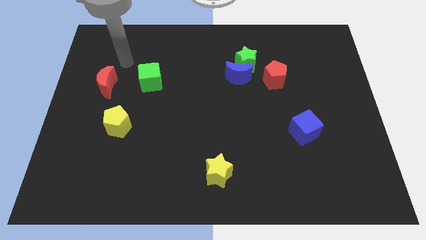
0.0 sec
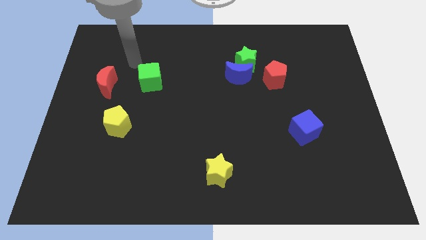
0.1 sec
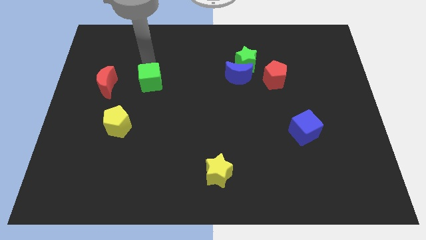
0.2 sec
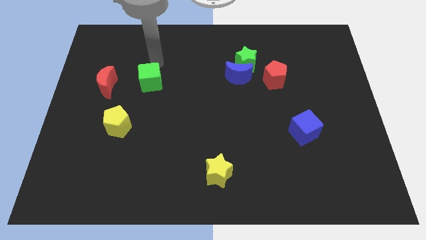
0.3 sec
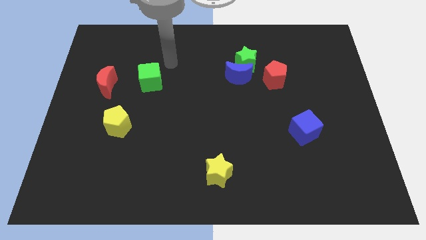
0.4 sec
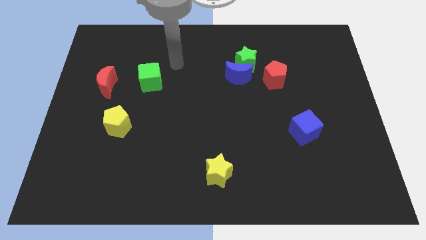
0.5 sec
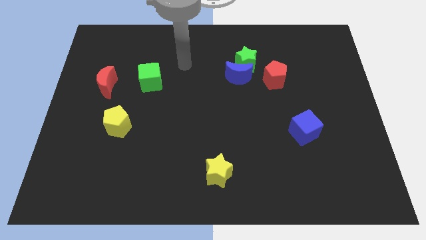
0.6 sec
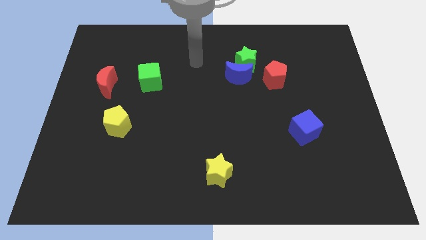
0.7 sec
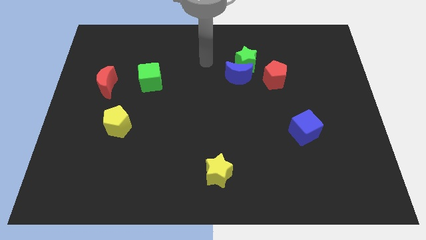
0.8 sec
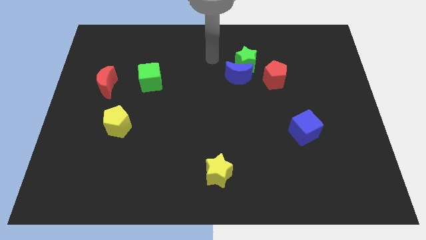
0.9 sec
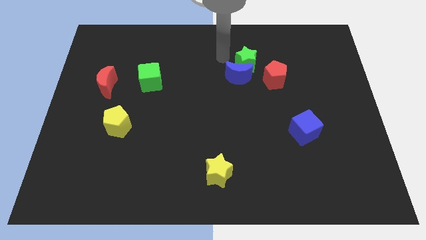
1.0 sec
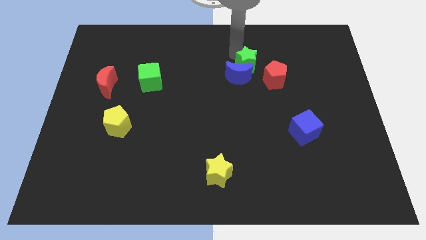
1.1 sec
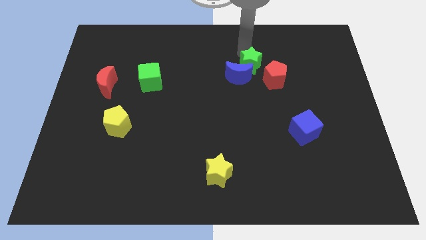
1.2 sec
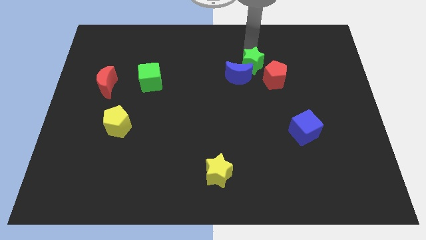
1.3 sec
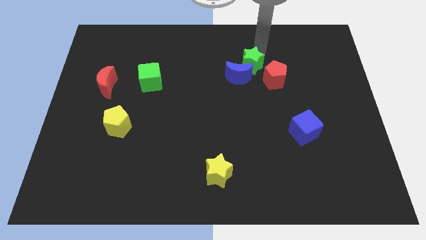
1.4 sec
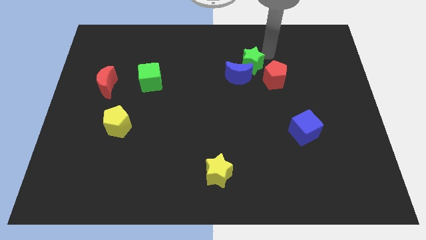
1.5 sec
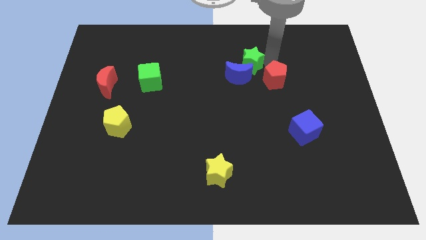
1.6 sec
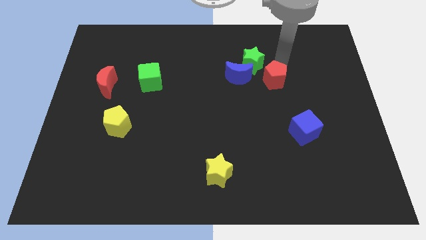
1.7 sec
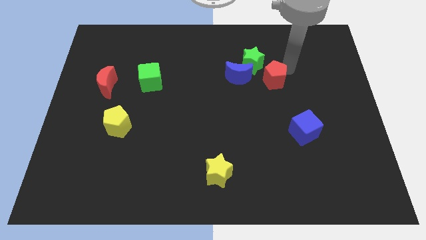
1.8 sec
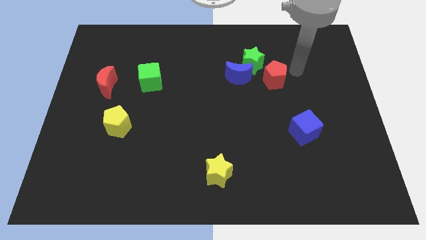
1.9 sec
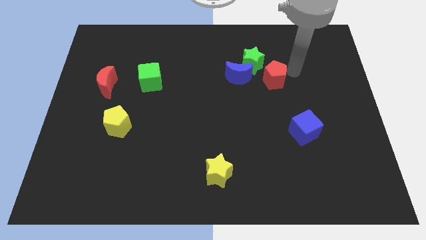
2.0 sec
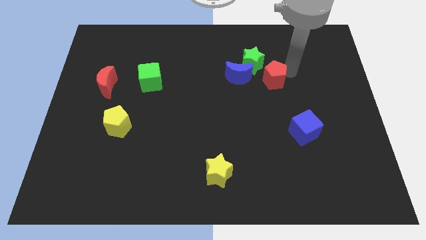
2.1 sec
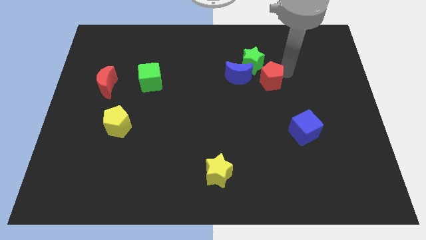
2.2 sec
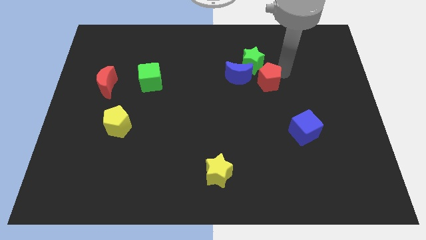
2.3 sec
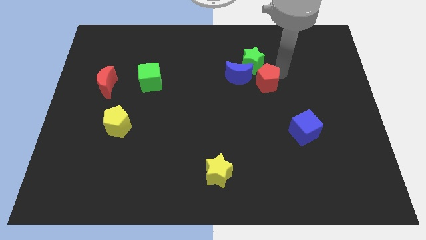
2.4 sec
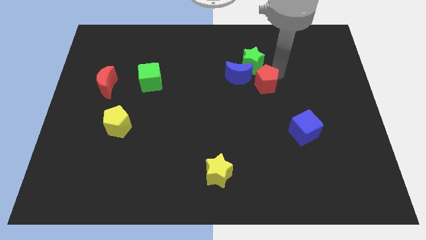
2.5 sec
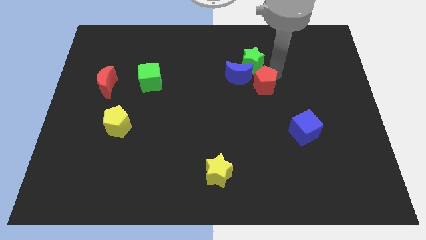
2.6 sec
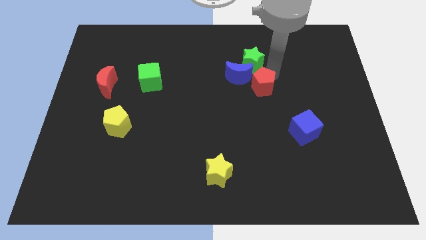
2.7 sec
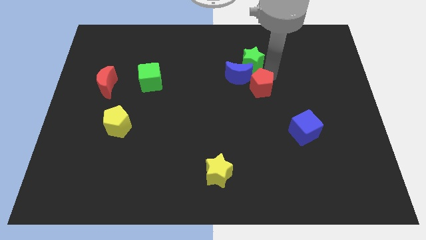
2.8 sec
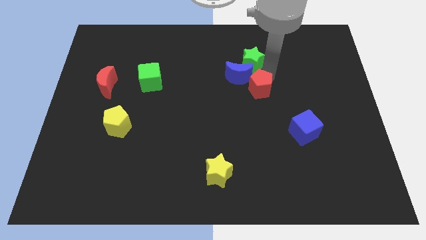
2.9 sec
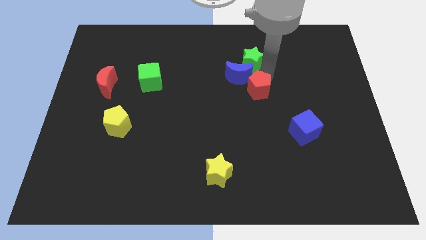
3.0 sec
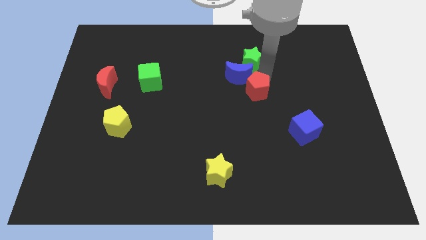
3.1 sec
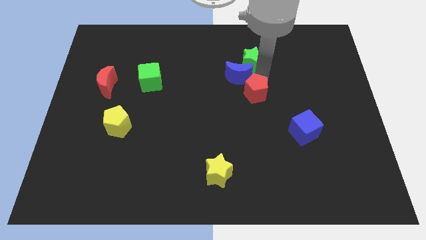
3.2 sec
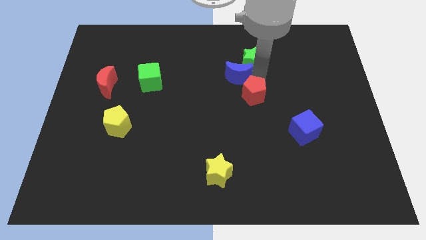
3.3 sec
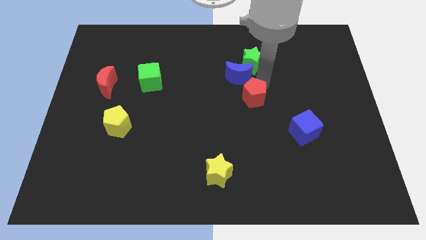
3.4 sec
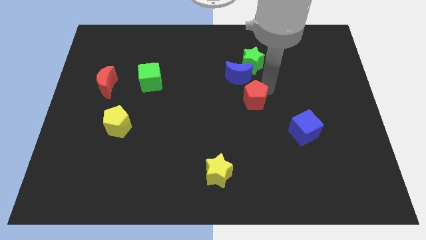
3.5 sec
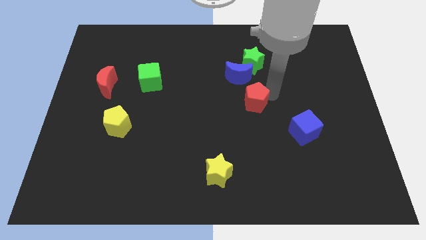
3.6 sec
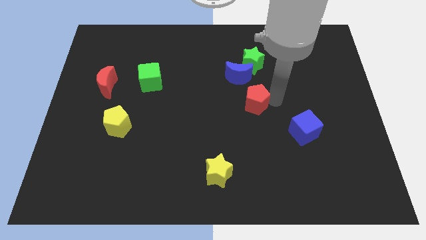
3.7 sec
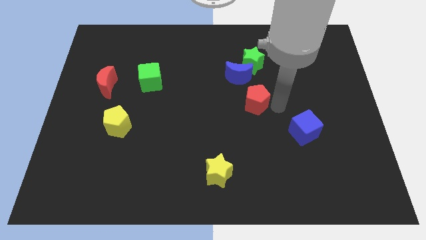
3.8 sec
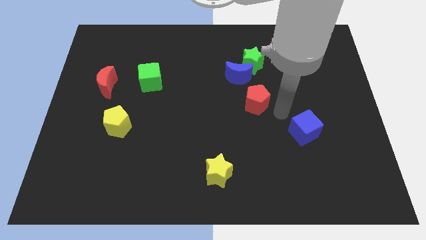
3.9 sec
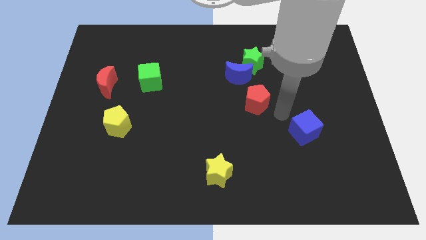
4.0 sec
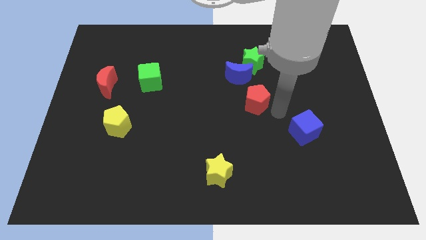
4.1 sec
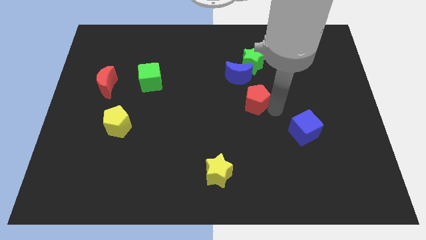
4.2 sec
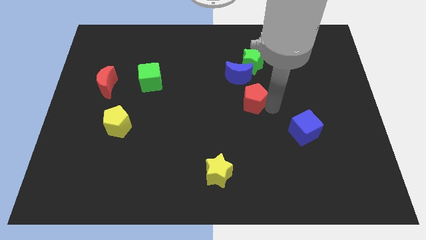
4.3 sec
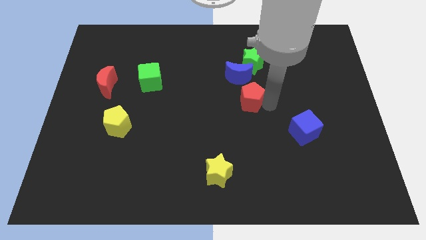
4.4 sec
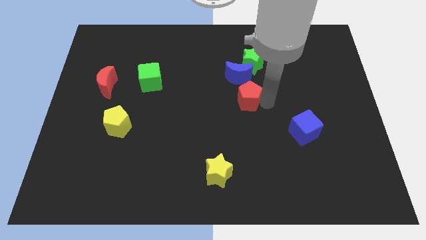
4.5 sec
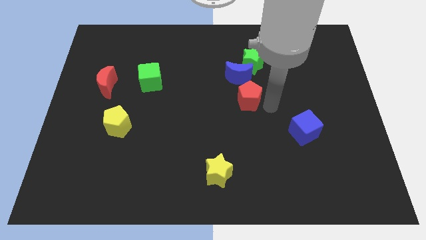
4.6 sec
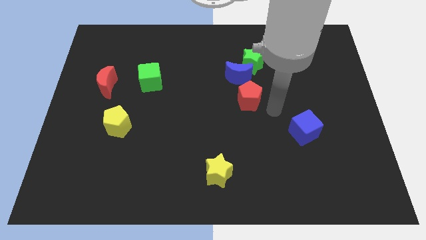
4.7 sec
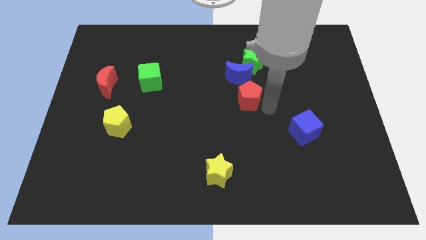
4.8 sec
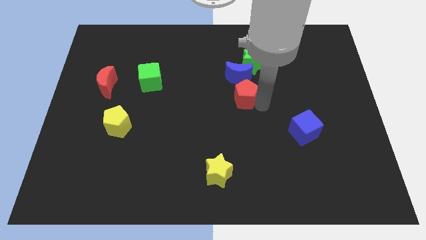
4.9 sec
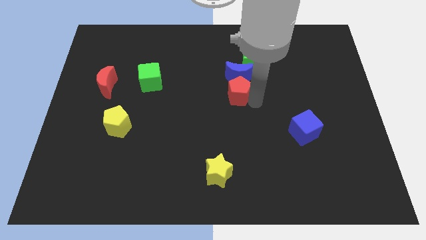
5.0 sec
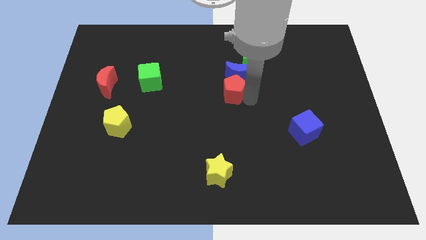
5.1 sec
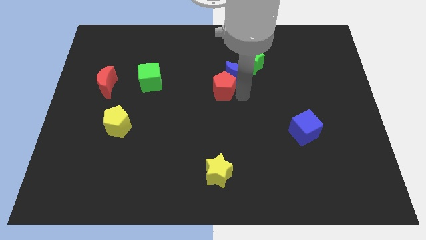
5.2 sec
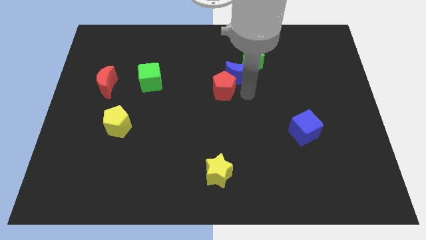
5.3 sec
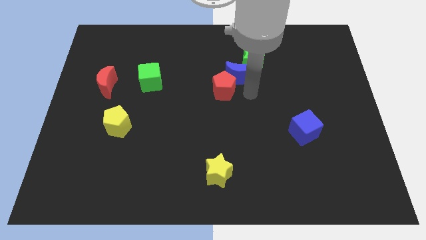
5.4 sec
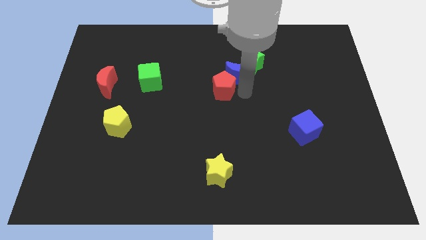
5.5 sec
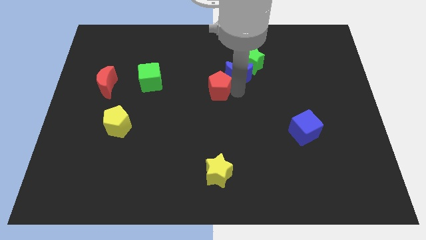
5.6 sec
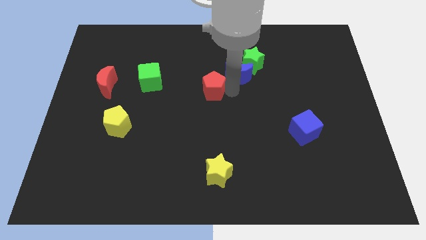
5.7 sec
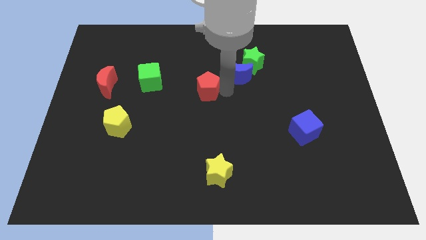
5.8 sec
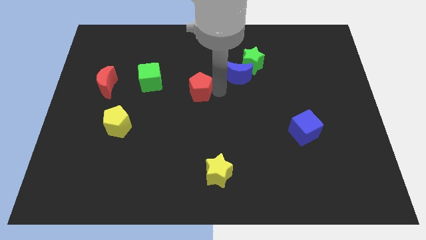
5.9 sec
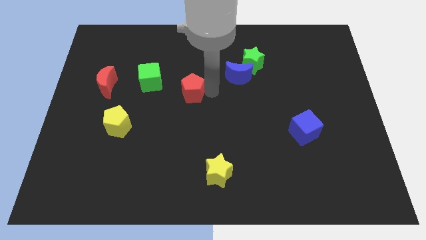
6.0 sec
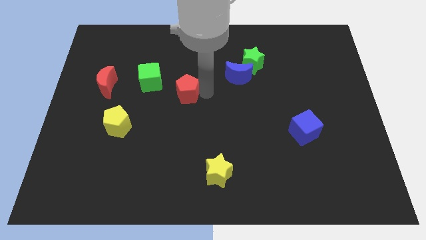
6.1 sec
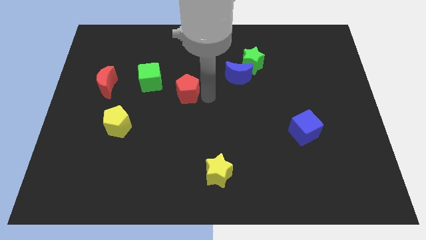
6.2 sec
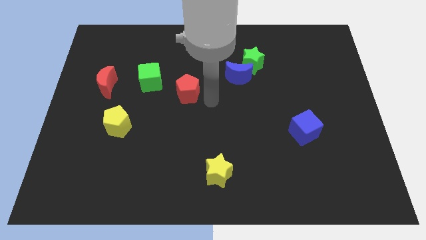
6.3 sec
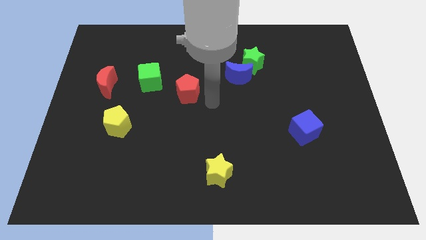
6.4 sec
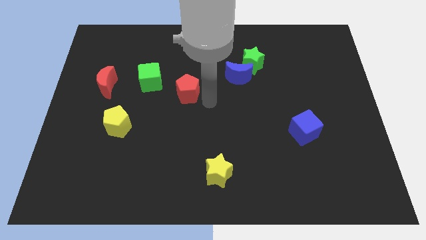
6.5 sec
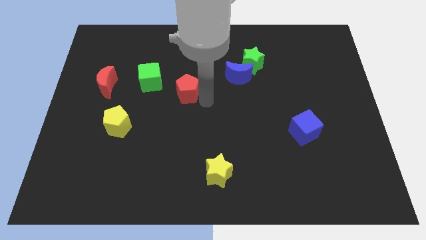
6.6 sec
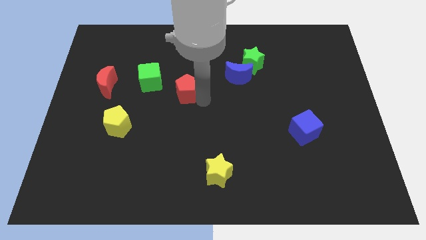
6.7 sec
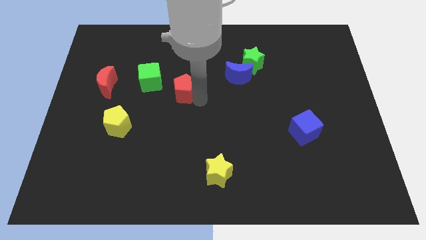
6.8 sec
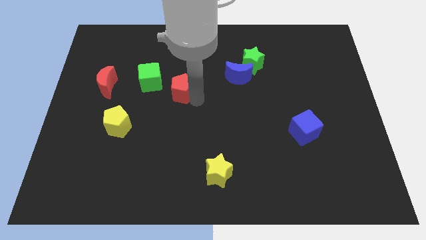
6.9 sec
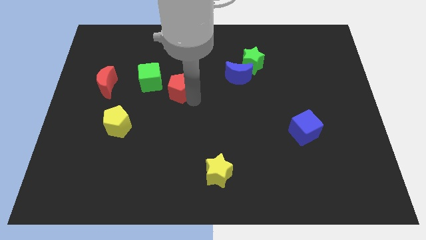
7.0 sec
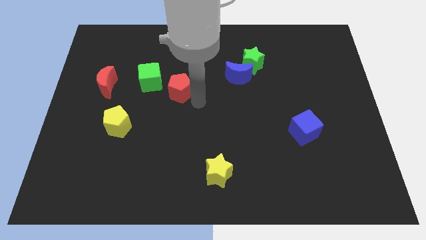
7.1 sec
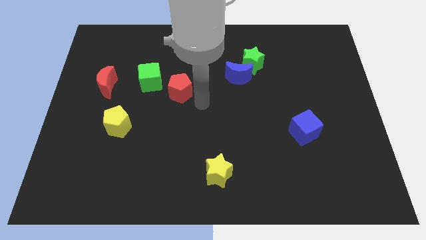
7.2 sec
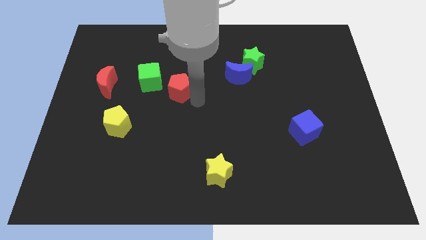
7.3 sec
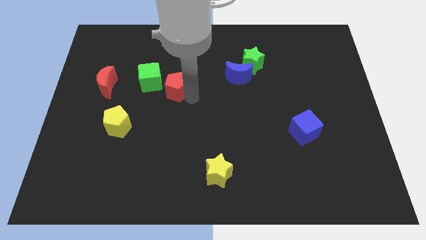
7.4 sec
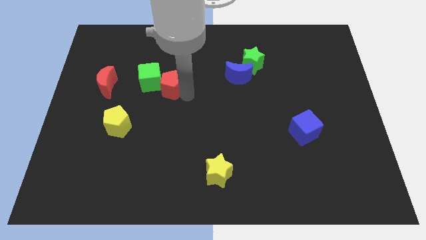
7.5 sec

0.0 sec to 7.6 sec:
move the red pentagon towards the green cube

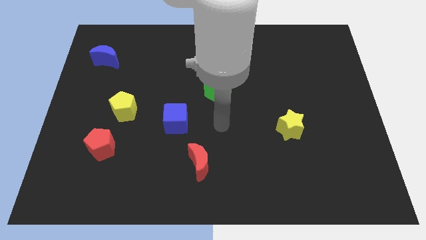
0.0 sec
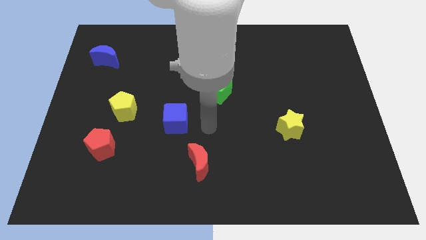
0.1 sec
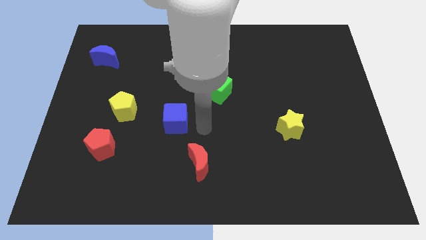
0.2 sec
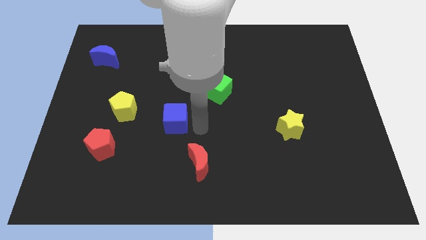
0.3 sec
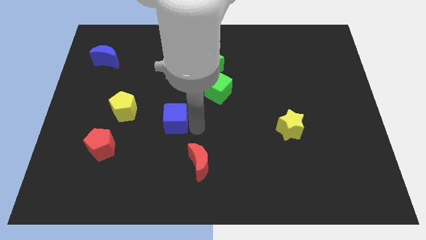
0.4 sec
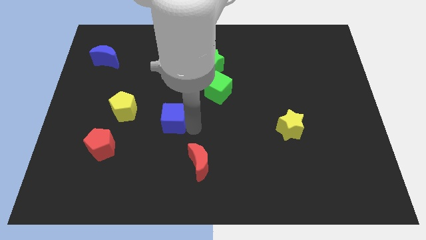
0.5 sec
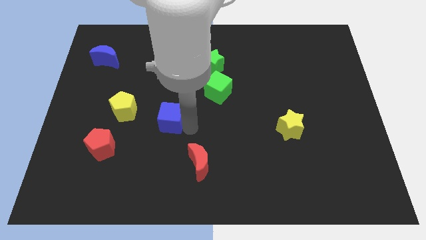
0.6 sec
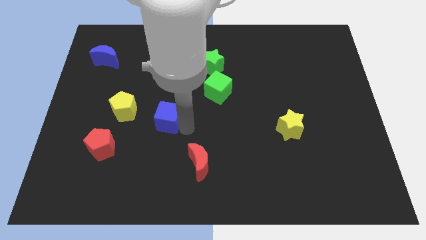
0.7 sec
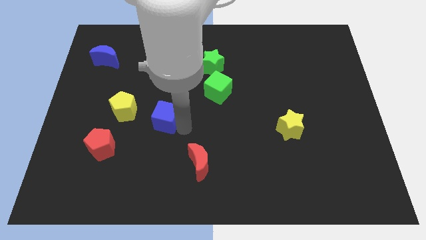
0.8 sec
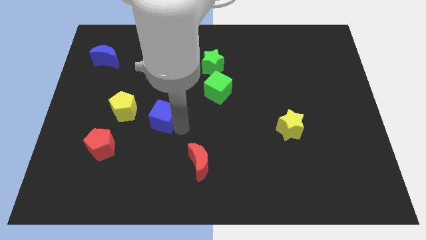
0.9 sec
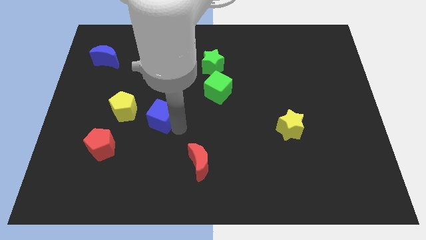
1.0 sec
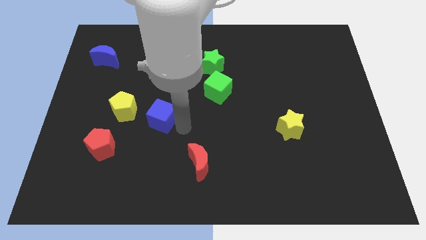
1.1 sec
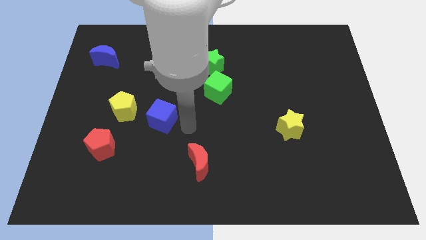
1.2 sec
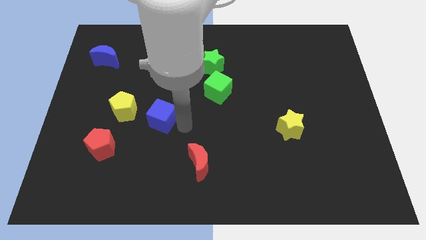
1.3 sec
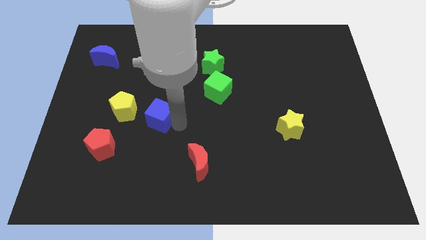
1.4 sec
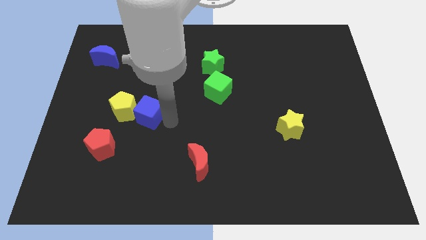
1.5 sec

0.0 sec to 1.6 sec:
move the blue cube close to the yellow pentagon
